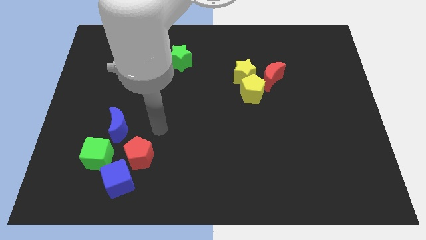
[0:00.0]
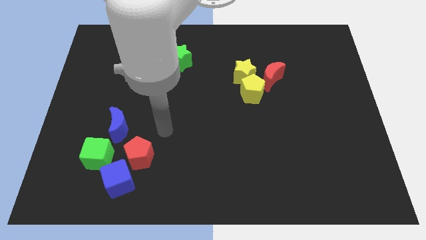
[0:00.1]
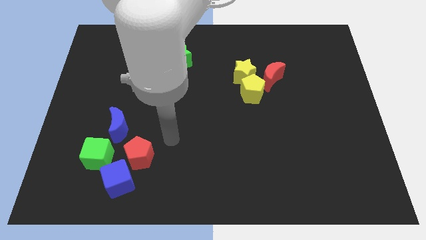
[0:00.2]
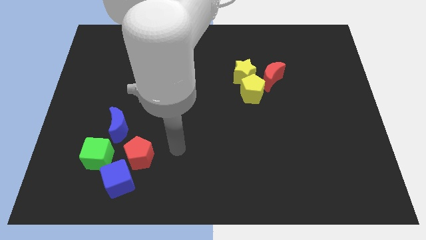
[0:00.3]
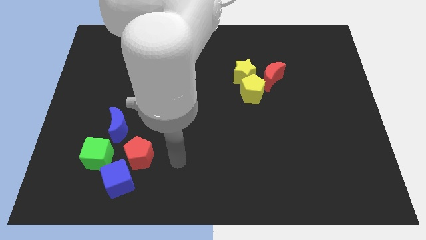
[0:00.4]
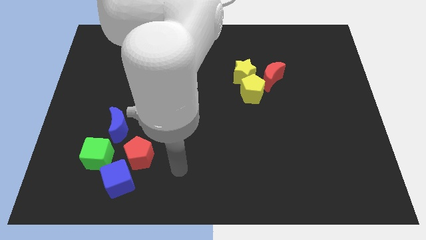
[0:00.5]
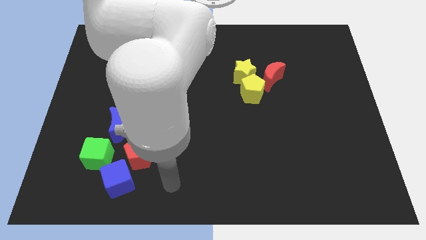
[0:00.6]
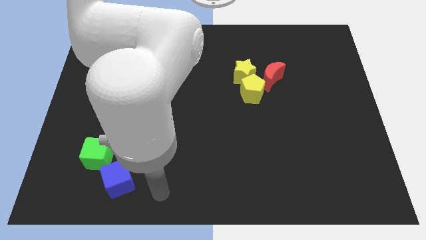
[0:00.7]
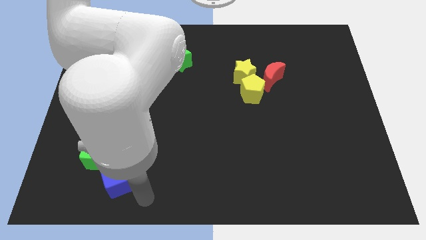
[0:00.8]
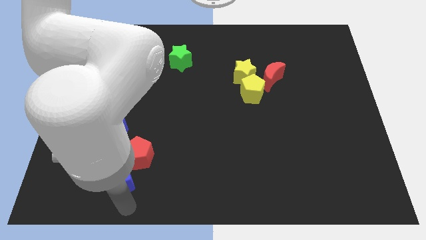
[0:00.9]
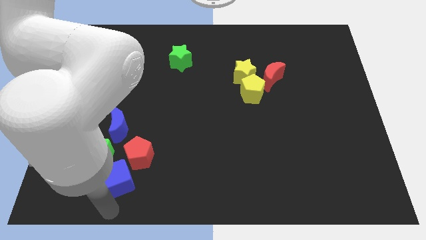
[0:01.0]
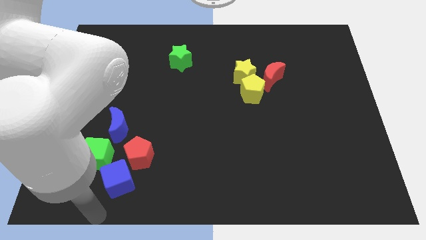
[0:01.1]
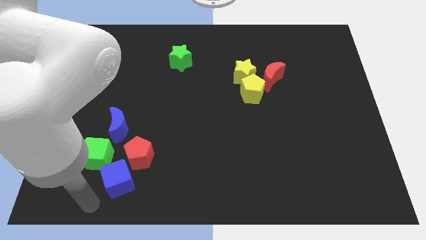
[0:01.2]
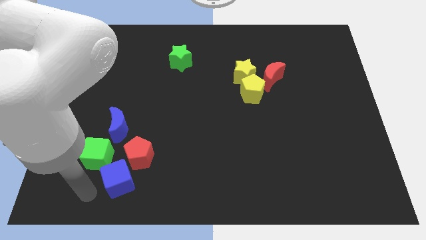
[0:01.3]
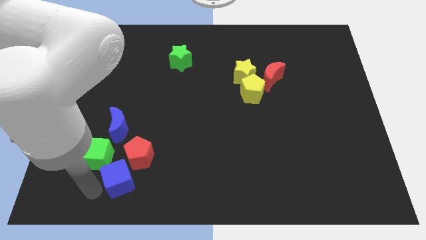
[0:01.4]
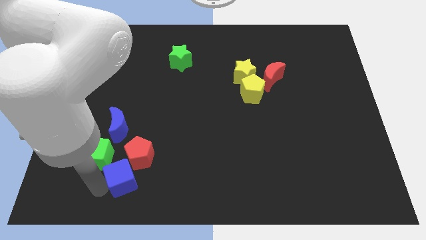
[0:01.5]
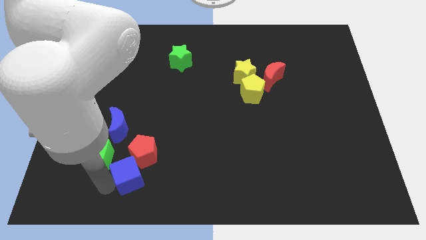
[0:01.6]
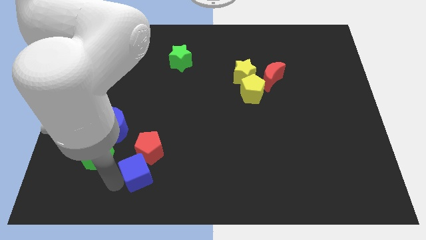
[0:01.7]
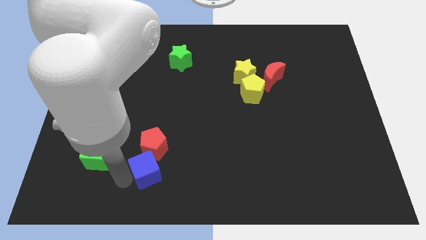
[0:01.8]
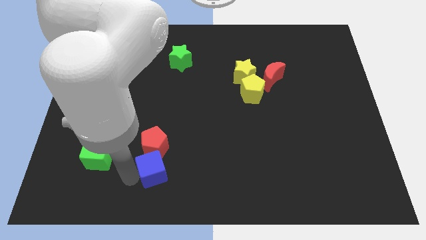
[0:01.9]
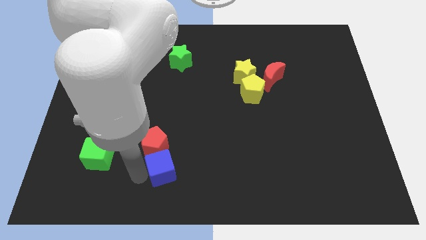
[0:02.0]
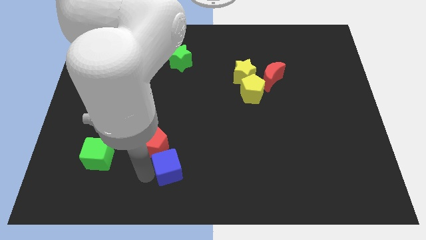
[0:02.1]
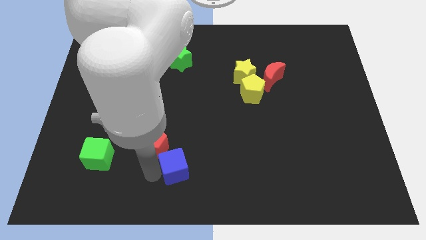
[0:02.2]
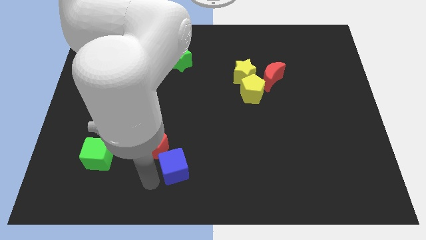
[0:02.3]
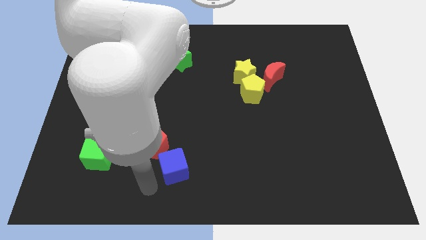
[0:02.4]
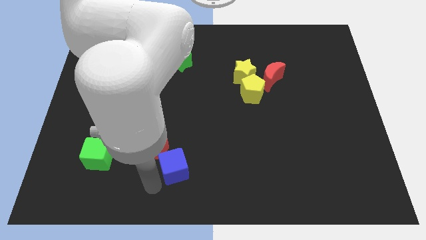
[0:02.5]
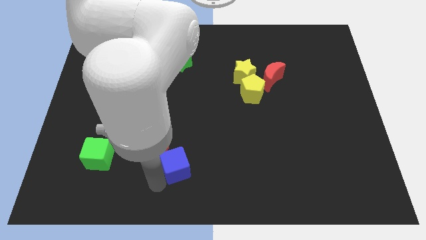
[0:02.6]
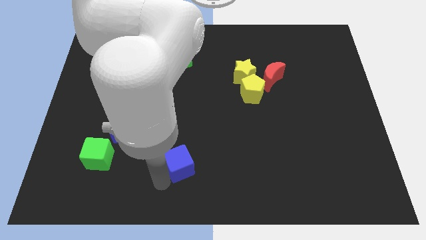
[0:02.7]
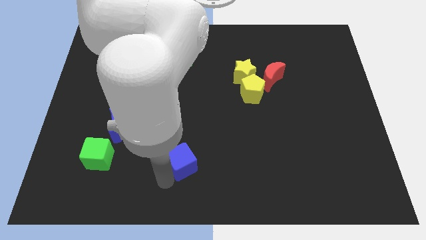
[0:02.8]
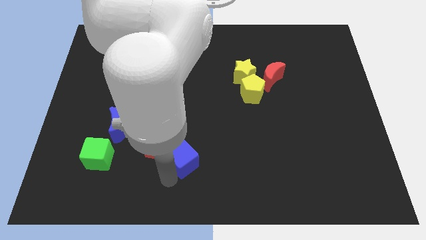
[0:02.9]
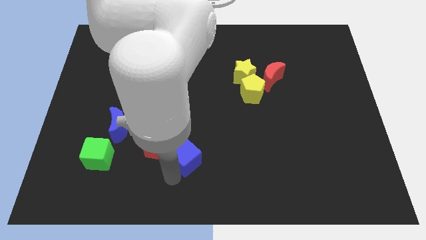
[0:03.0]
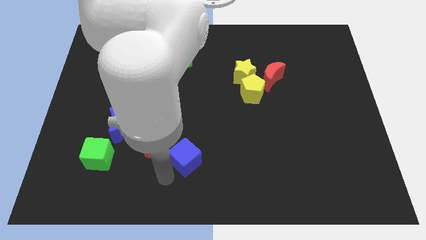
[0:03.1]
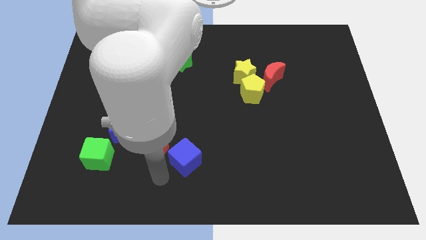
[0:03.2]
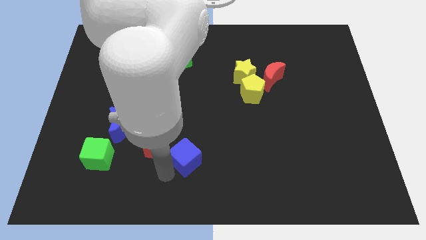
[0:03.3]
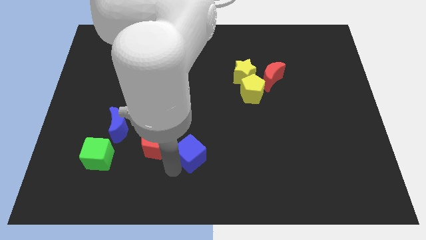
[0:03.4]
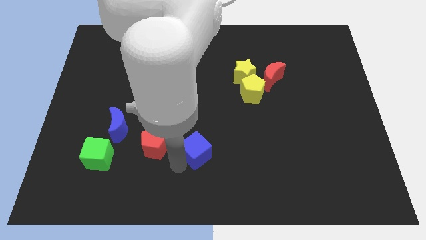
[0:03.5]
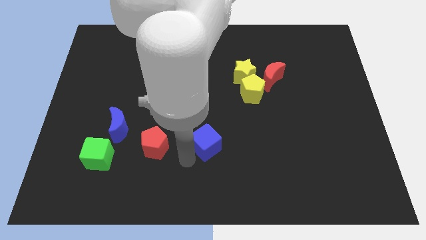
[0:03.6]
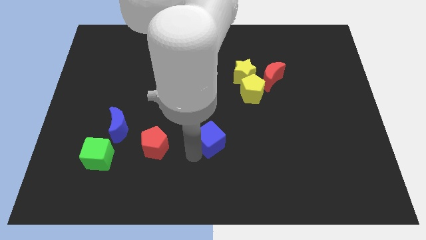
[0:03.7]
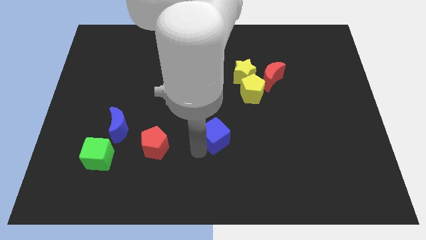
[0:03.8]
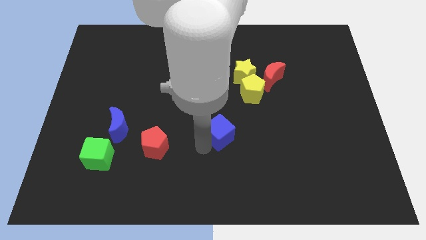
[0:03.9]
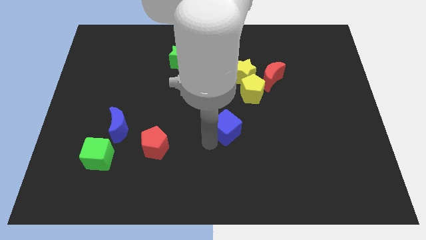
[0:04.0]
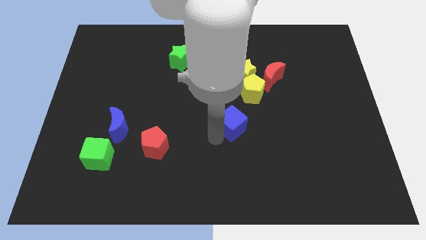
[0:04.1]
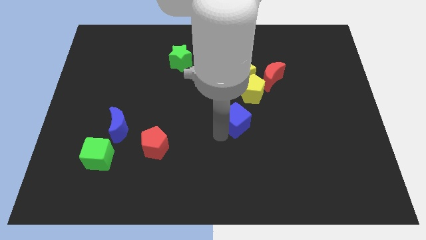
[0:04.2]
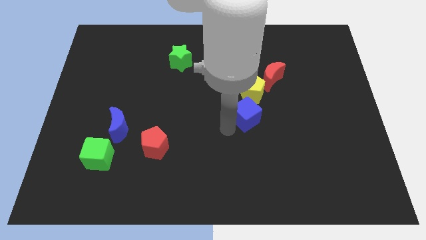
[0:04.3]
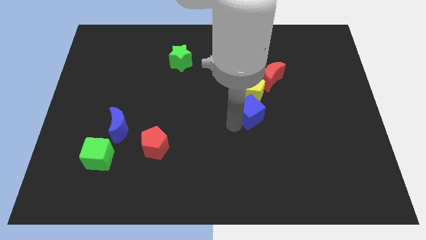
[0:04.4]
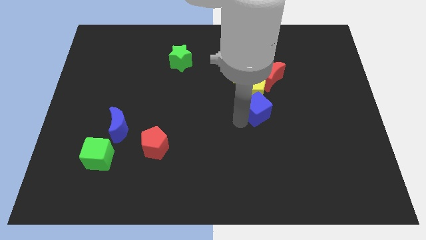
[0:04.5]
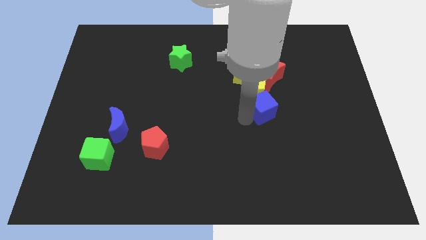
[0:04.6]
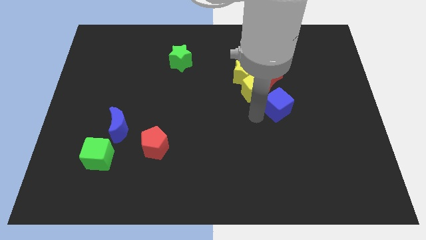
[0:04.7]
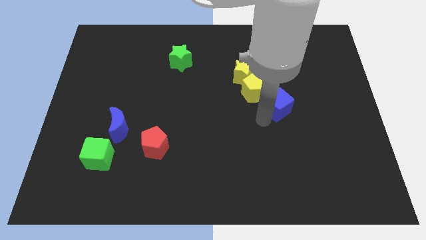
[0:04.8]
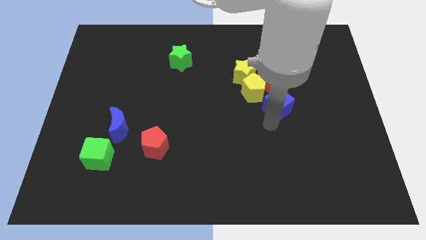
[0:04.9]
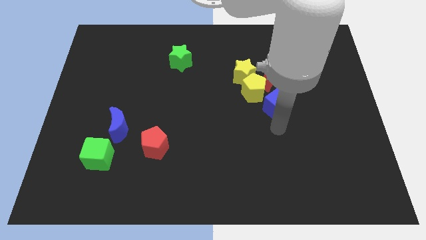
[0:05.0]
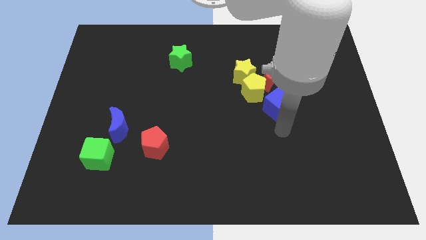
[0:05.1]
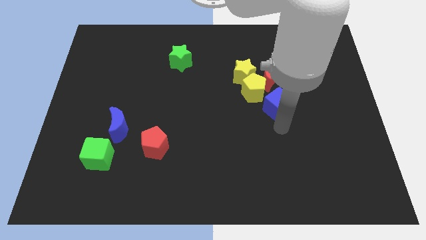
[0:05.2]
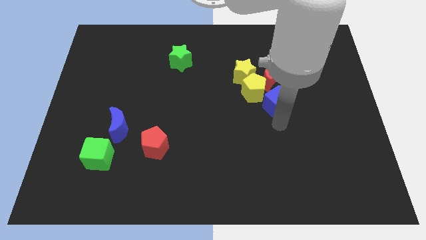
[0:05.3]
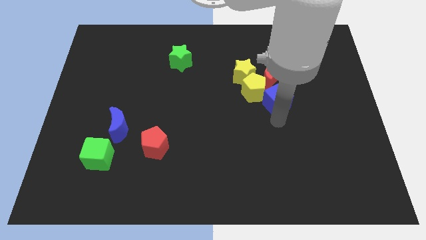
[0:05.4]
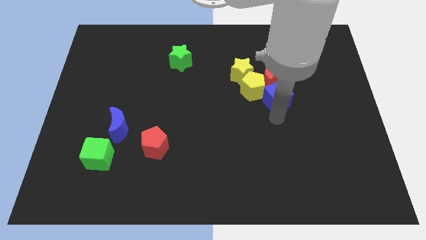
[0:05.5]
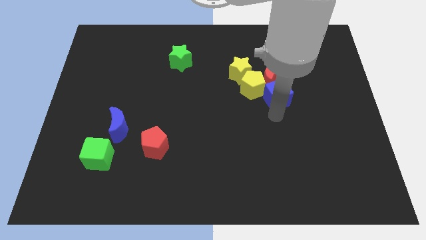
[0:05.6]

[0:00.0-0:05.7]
move the blue cube to the red moon

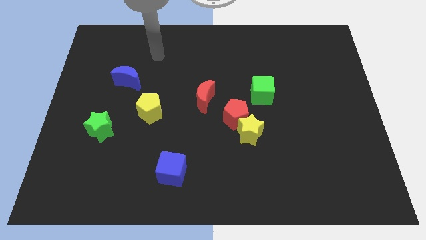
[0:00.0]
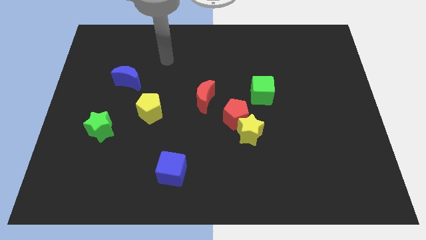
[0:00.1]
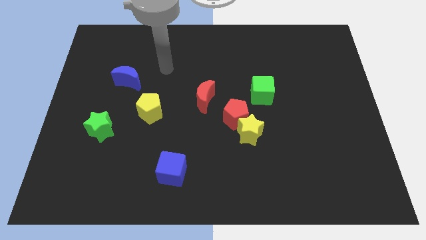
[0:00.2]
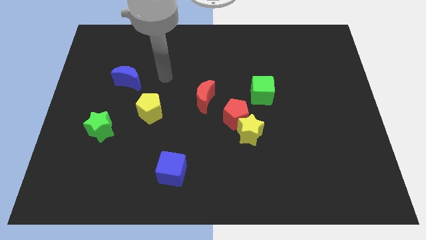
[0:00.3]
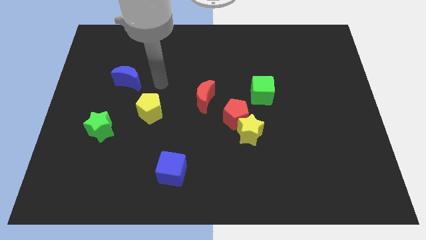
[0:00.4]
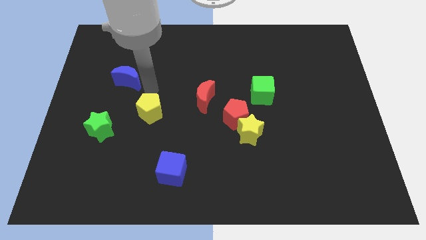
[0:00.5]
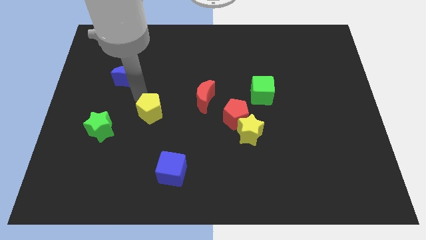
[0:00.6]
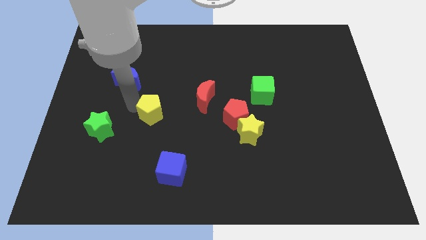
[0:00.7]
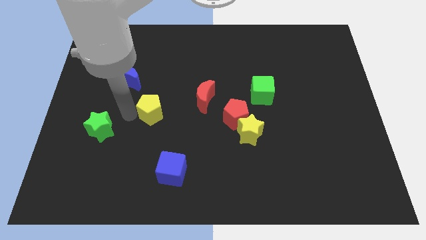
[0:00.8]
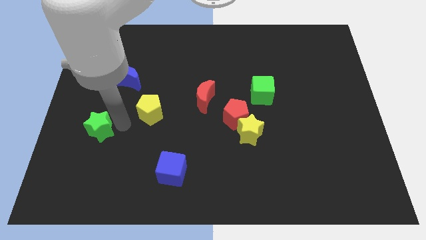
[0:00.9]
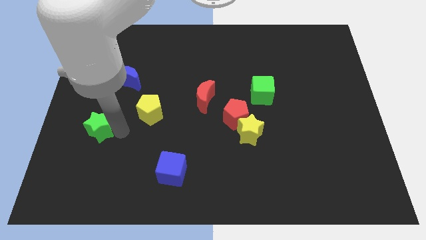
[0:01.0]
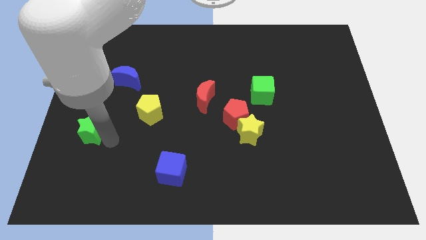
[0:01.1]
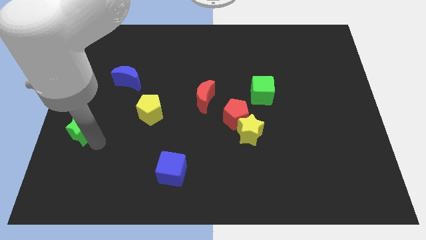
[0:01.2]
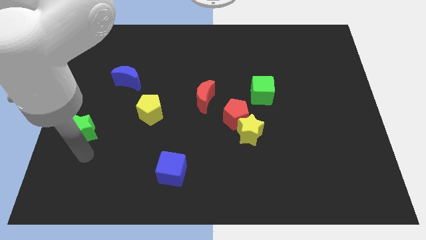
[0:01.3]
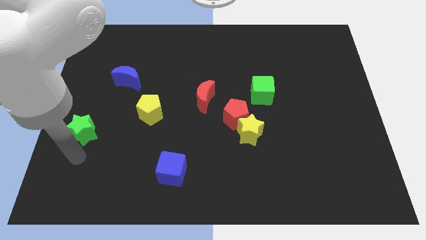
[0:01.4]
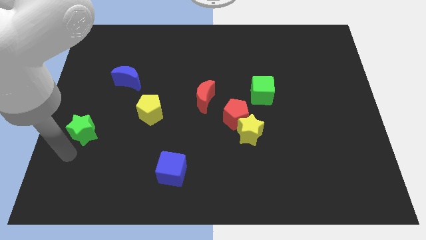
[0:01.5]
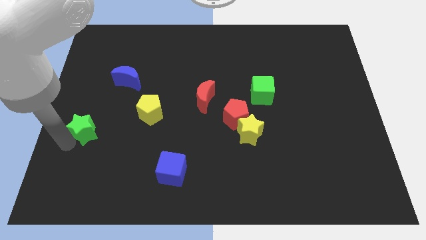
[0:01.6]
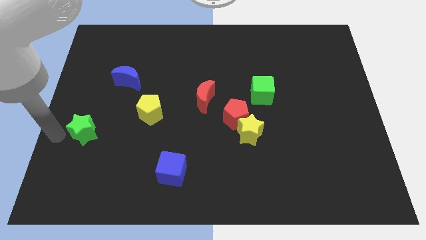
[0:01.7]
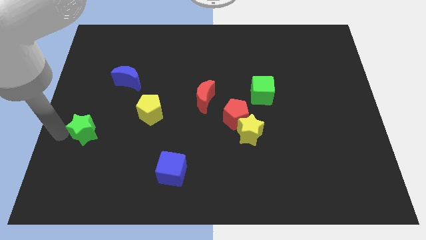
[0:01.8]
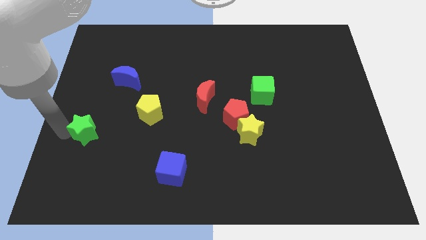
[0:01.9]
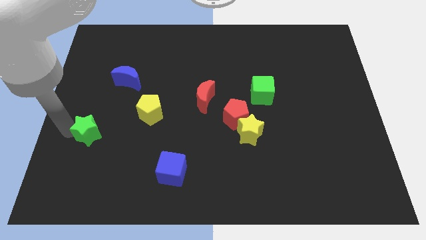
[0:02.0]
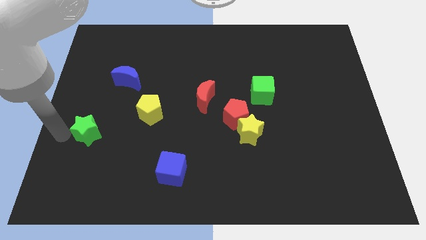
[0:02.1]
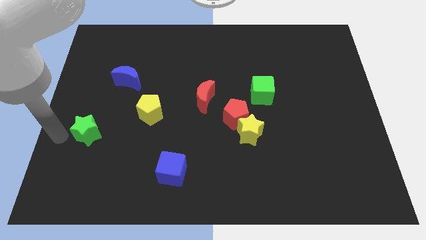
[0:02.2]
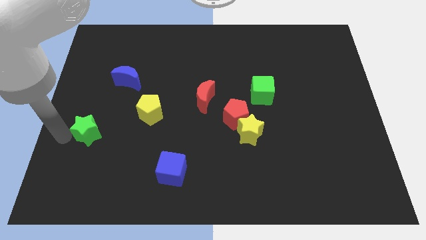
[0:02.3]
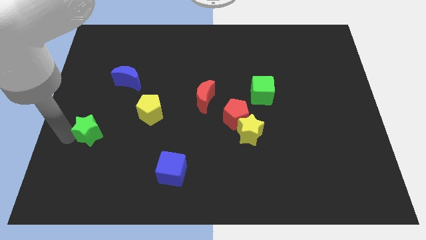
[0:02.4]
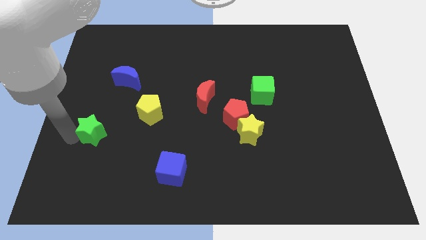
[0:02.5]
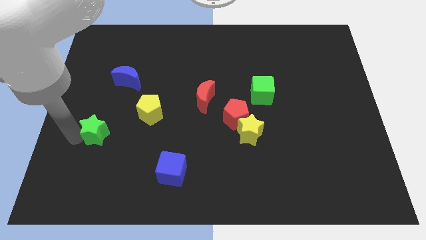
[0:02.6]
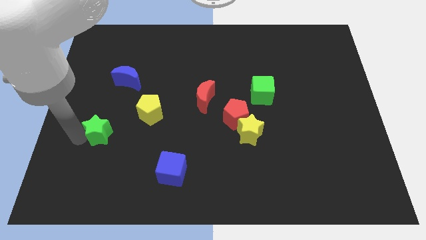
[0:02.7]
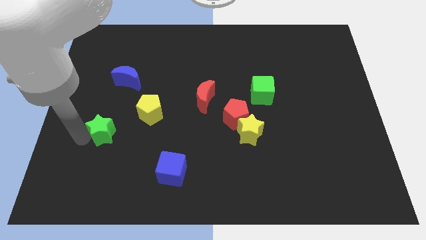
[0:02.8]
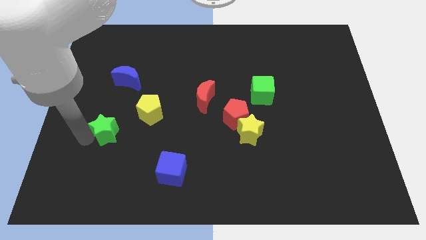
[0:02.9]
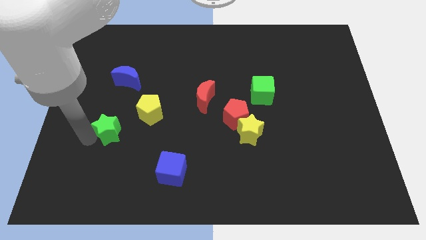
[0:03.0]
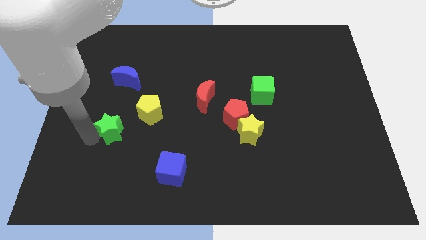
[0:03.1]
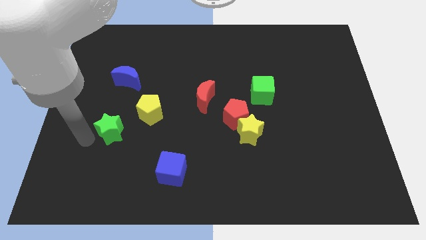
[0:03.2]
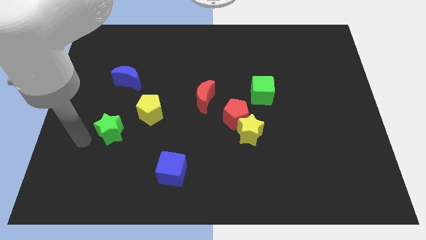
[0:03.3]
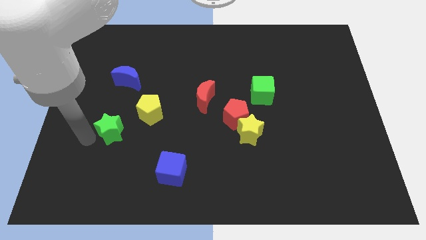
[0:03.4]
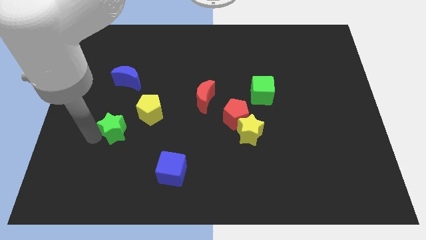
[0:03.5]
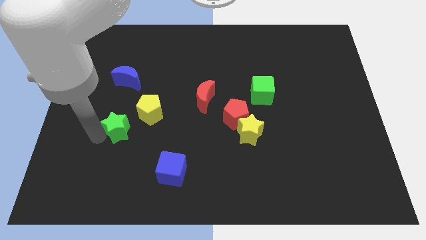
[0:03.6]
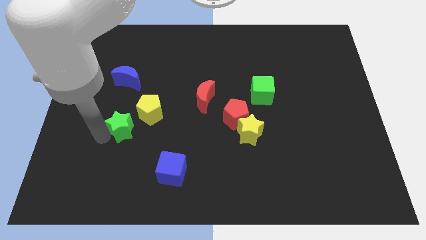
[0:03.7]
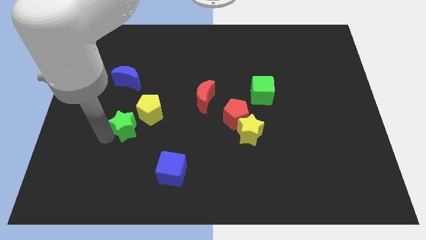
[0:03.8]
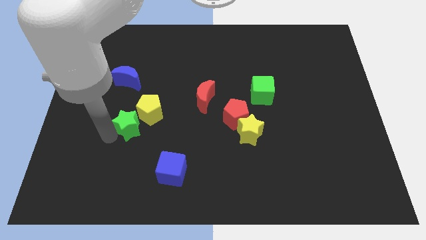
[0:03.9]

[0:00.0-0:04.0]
put the green star towards the yellow pentagon
